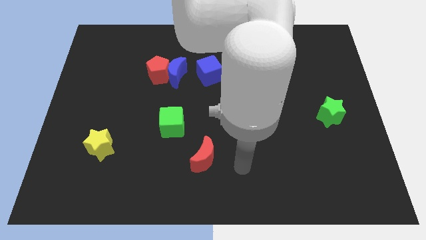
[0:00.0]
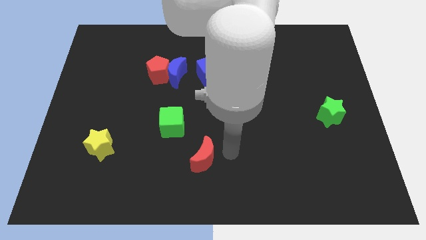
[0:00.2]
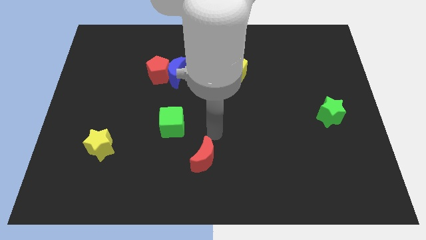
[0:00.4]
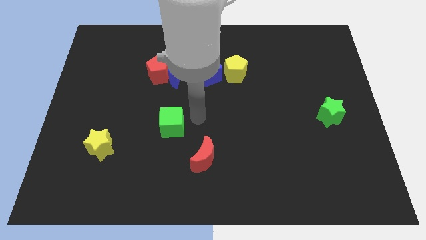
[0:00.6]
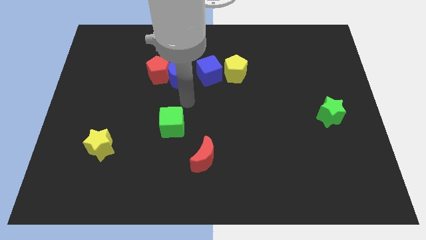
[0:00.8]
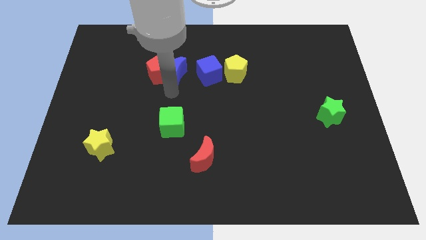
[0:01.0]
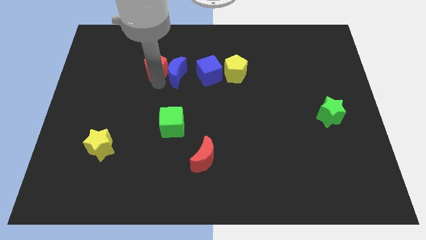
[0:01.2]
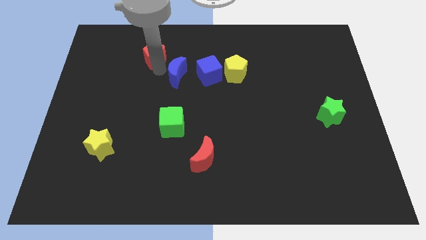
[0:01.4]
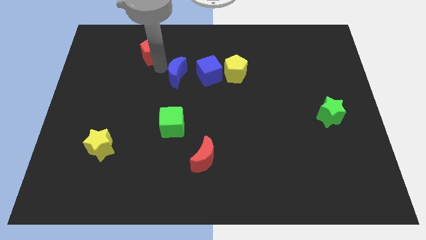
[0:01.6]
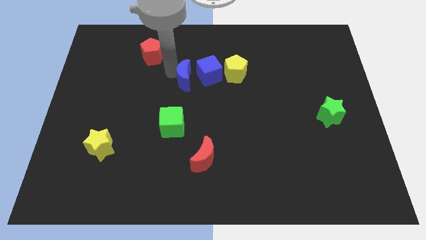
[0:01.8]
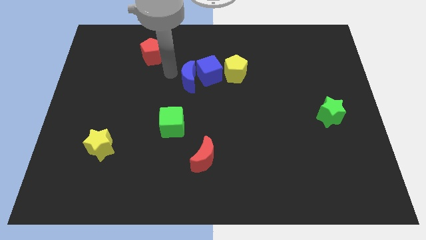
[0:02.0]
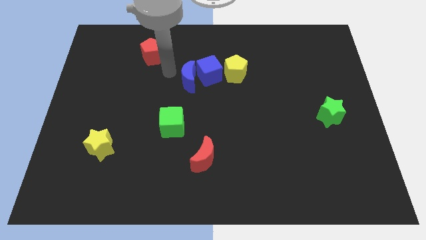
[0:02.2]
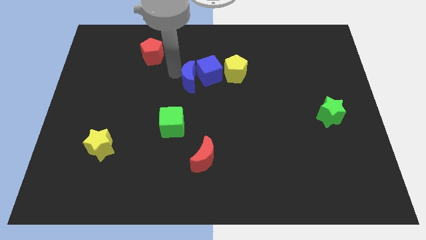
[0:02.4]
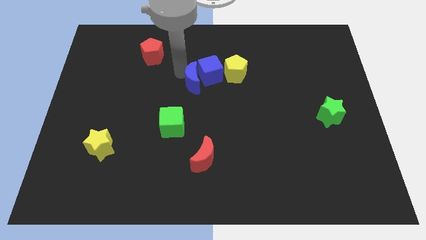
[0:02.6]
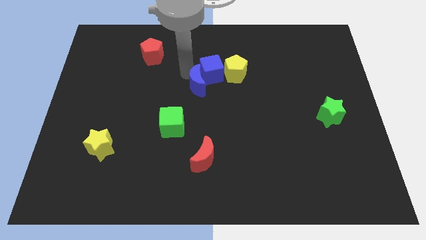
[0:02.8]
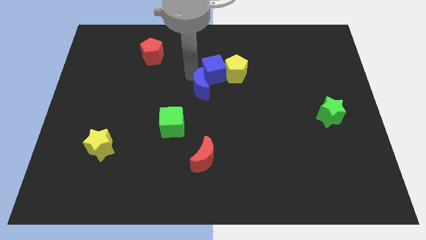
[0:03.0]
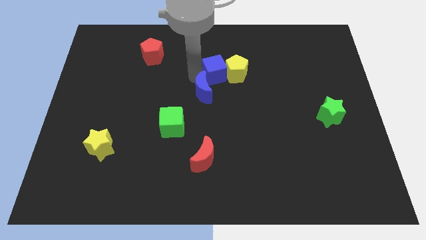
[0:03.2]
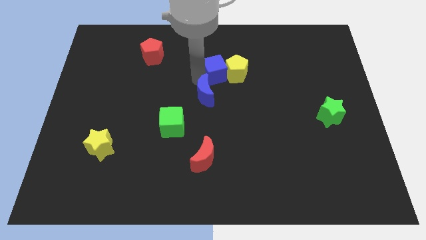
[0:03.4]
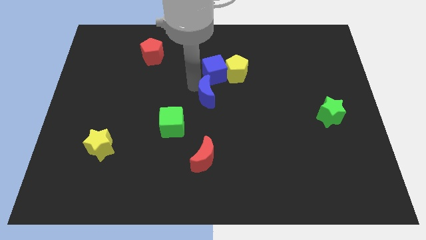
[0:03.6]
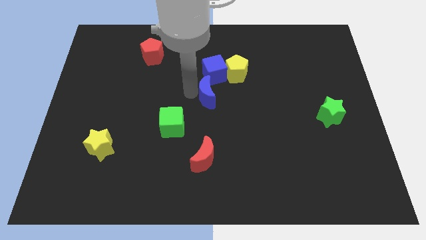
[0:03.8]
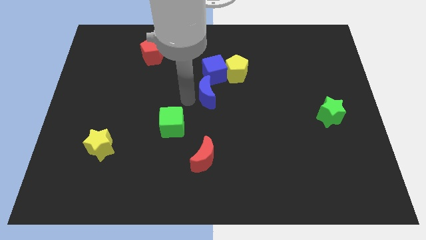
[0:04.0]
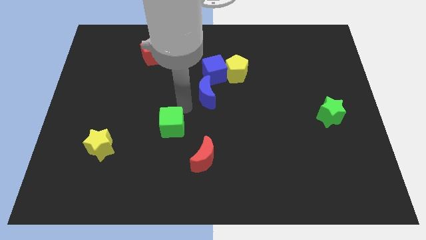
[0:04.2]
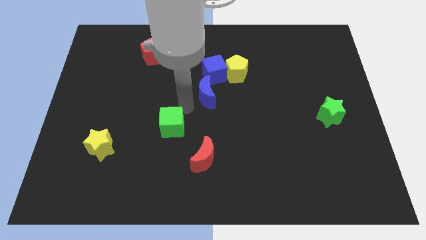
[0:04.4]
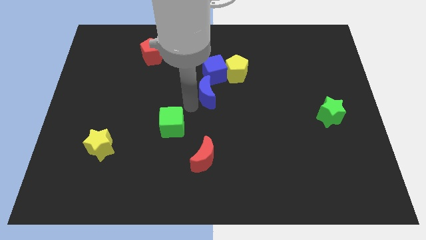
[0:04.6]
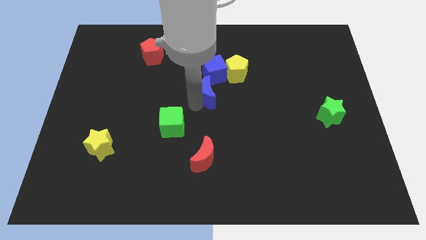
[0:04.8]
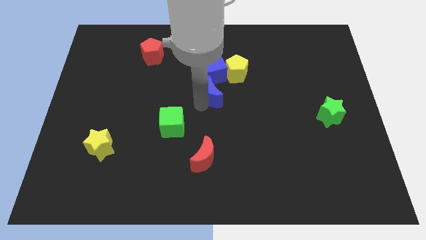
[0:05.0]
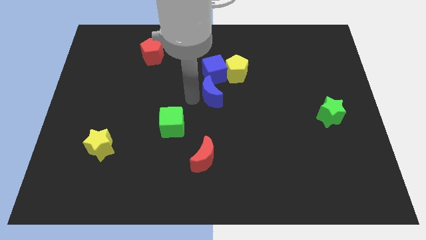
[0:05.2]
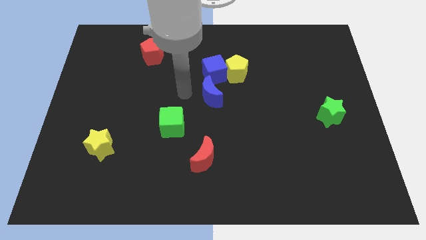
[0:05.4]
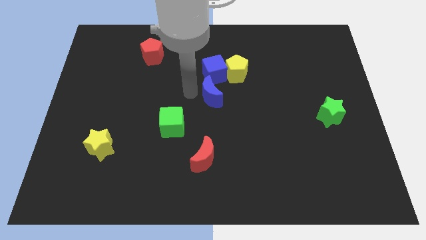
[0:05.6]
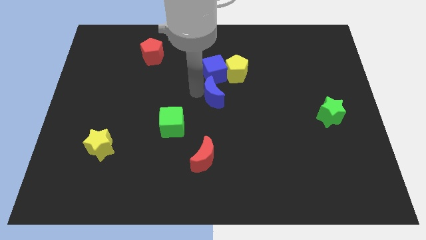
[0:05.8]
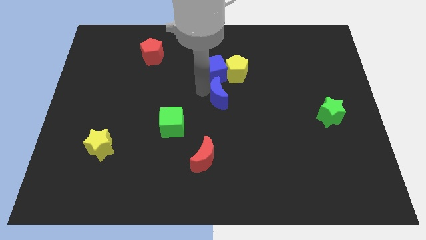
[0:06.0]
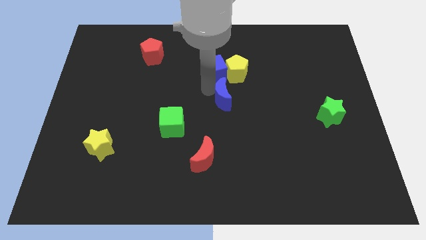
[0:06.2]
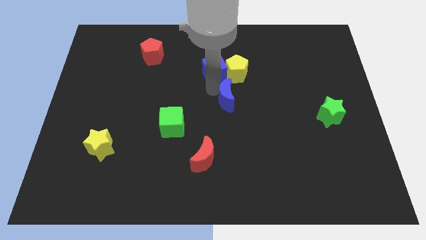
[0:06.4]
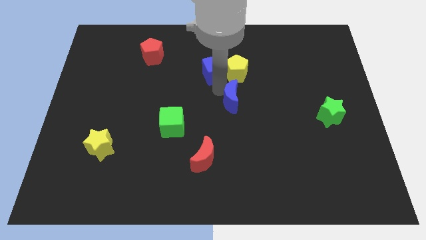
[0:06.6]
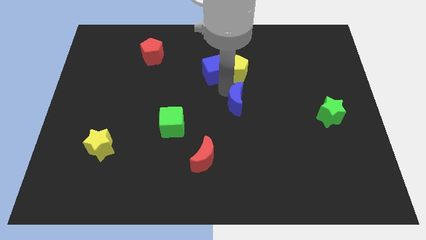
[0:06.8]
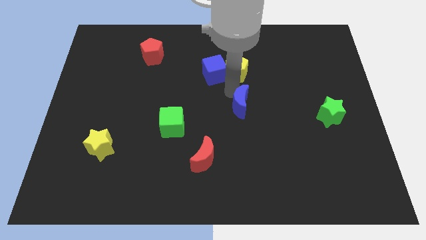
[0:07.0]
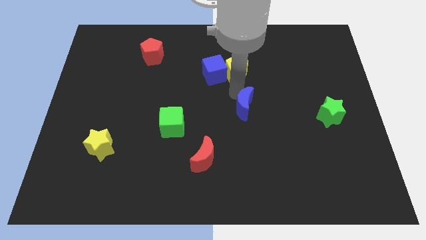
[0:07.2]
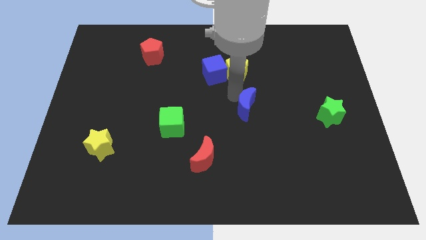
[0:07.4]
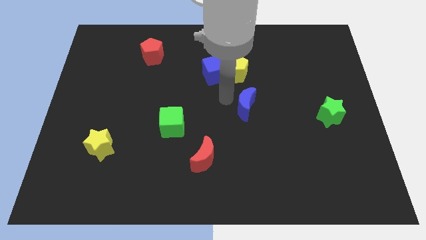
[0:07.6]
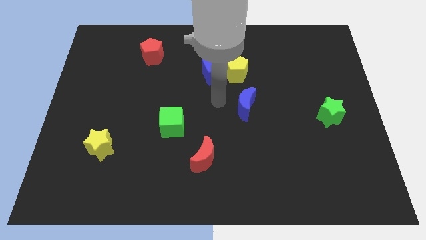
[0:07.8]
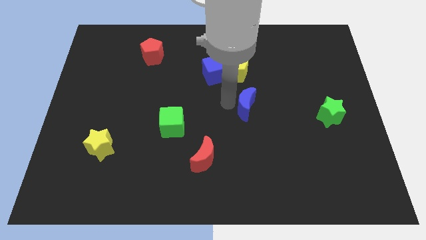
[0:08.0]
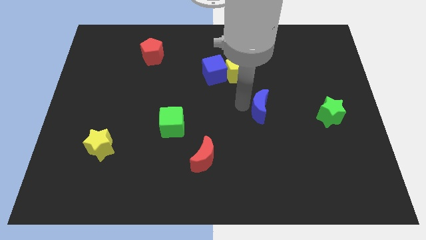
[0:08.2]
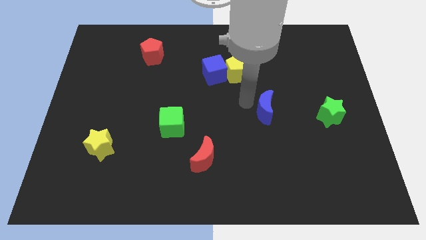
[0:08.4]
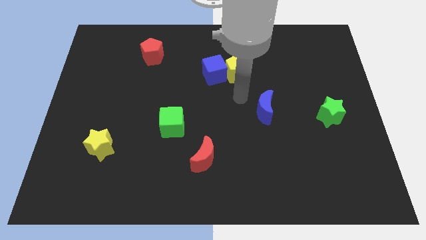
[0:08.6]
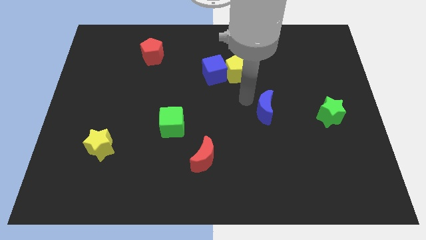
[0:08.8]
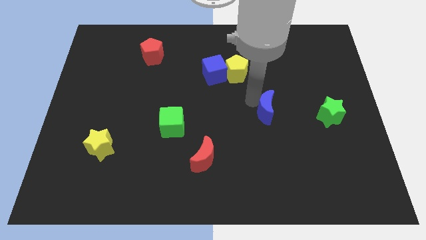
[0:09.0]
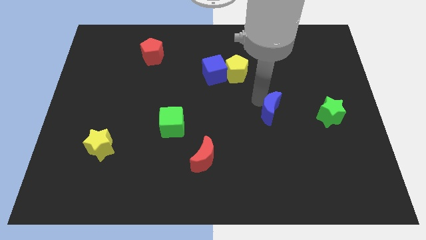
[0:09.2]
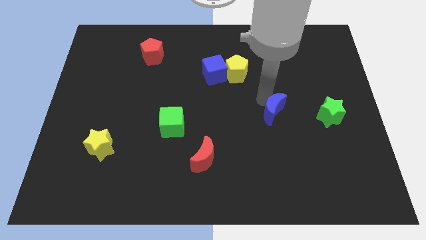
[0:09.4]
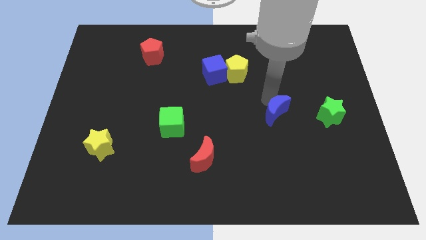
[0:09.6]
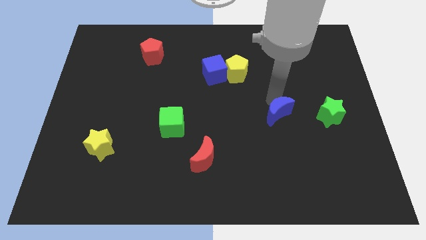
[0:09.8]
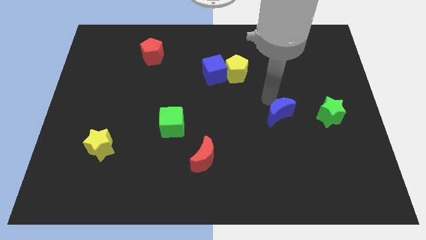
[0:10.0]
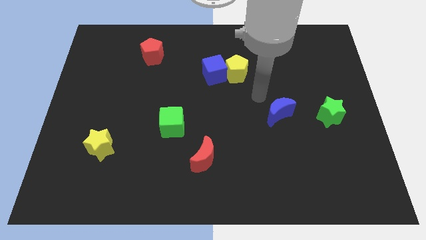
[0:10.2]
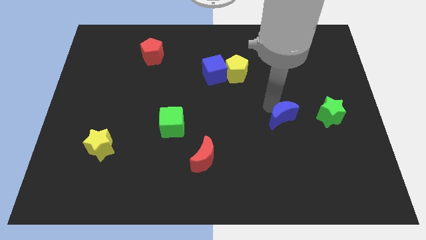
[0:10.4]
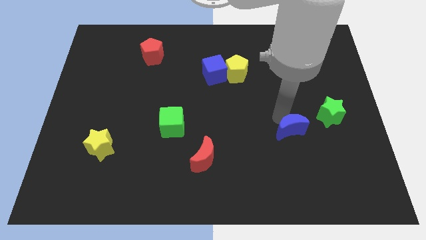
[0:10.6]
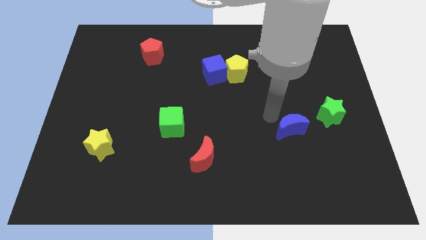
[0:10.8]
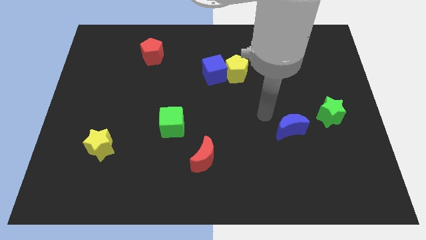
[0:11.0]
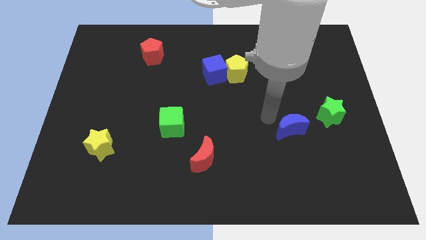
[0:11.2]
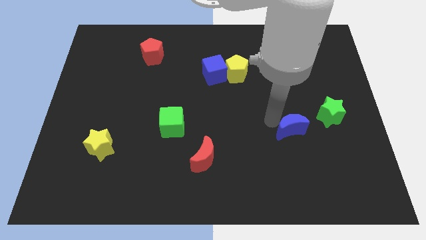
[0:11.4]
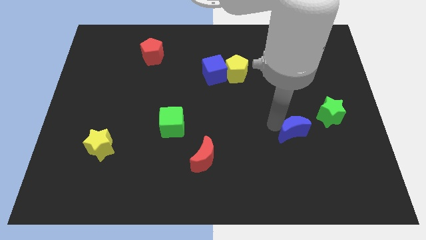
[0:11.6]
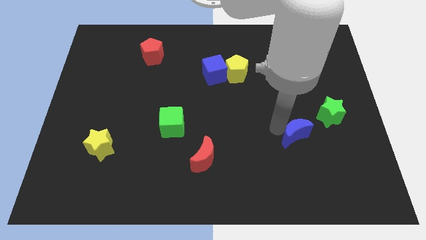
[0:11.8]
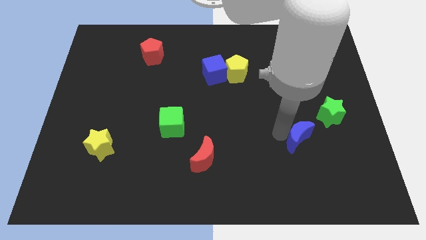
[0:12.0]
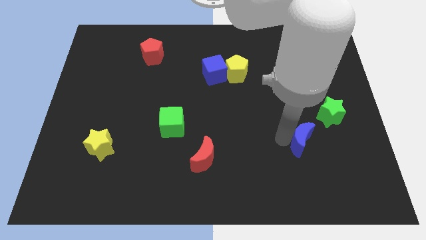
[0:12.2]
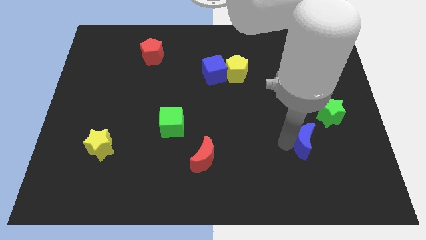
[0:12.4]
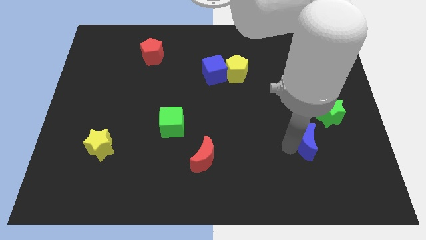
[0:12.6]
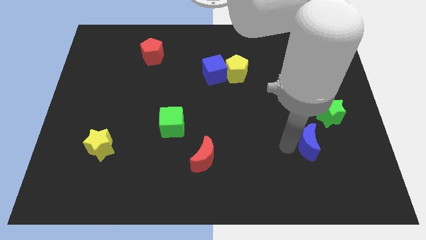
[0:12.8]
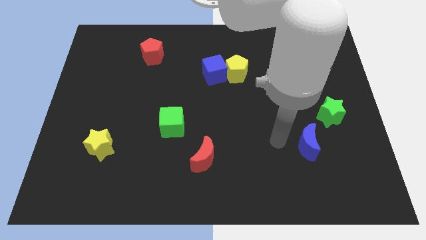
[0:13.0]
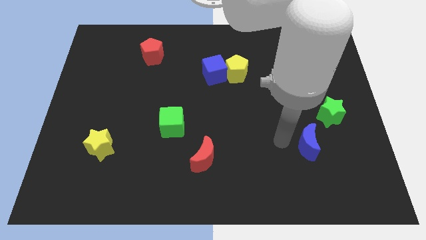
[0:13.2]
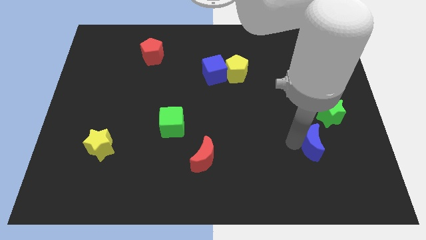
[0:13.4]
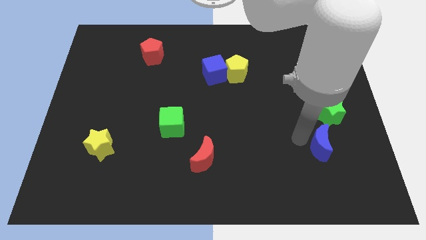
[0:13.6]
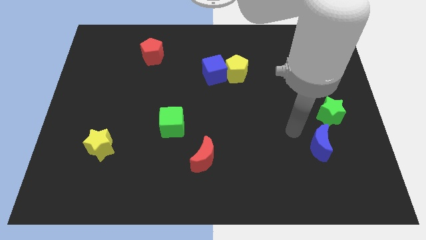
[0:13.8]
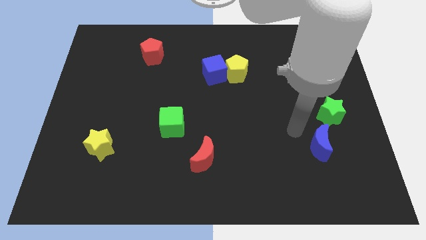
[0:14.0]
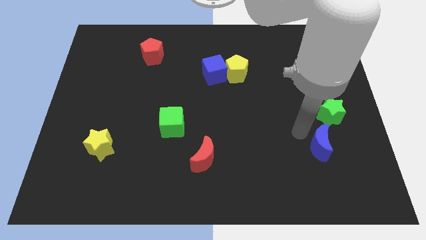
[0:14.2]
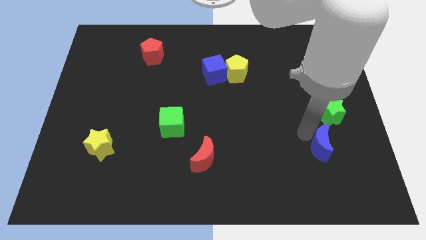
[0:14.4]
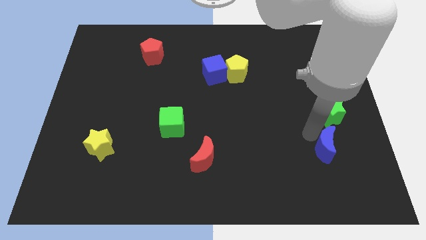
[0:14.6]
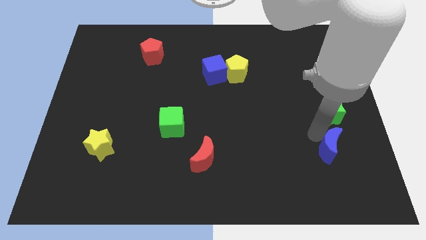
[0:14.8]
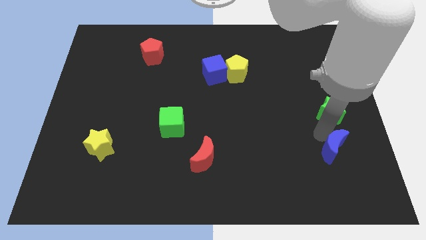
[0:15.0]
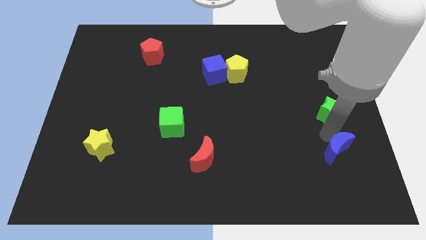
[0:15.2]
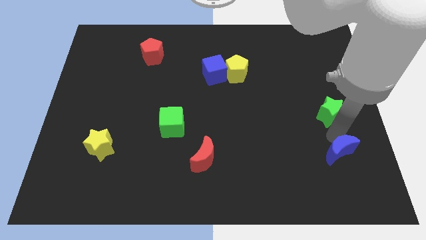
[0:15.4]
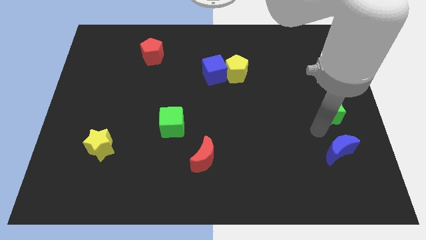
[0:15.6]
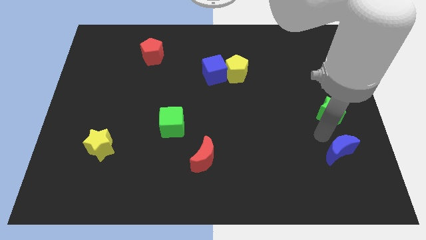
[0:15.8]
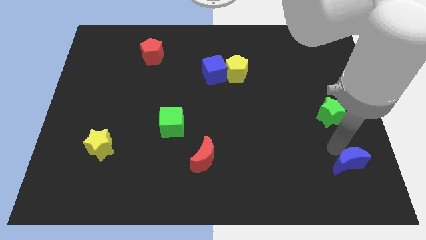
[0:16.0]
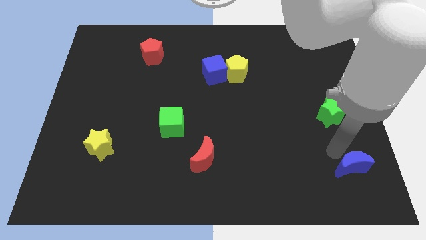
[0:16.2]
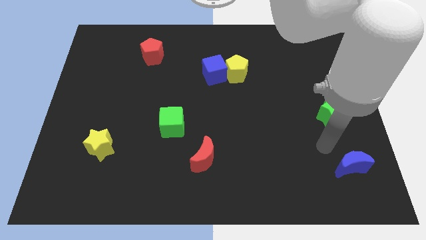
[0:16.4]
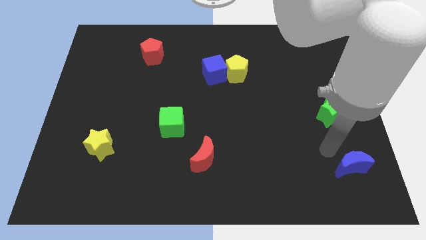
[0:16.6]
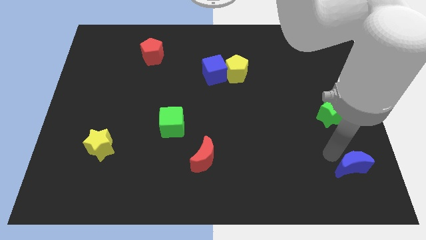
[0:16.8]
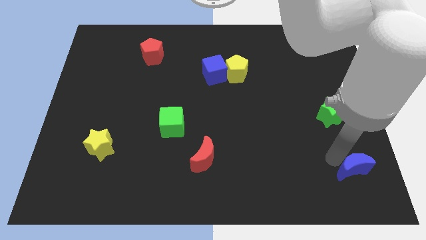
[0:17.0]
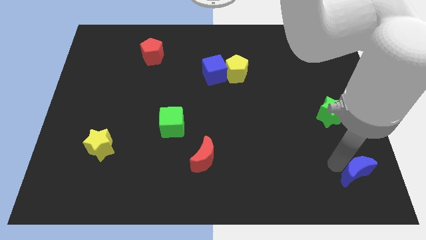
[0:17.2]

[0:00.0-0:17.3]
move the blue moon to the lower right corner
